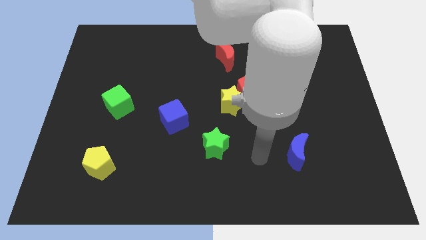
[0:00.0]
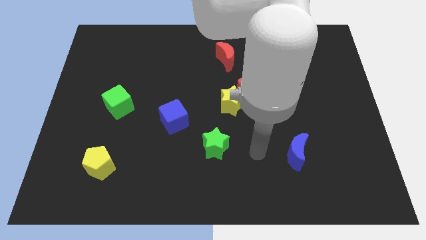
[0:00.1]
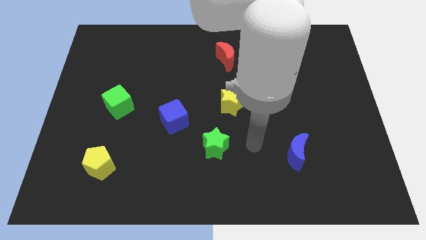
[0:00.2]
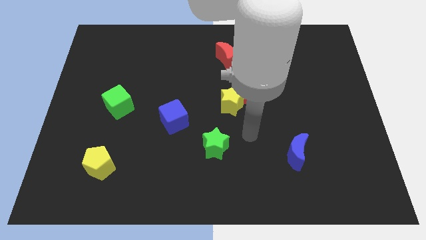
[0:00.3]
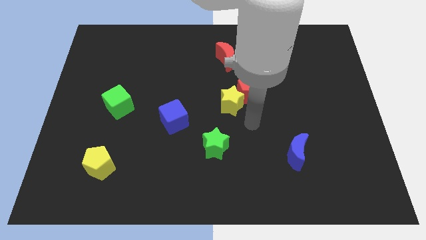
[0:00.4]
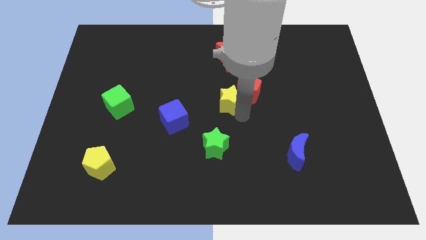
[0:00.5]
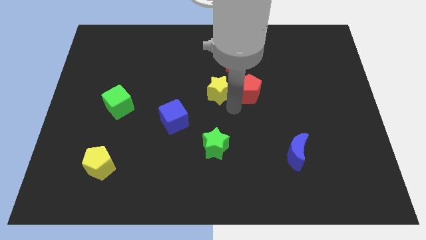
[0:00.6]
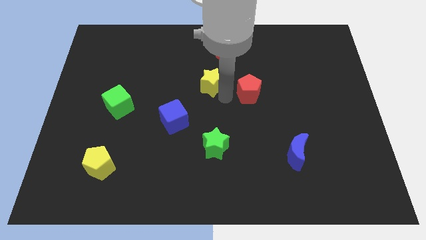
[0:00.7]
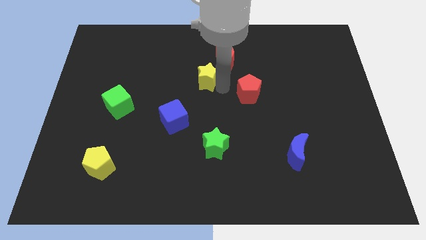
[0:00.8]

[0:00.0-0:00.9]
move the red pentagon away from the yellow star

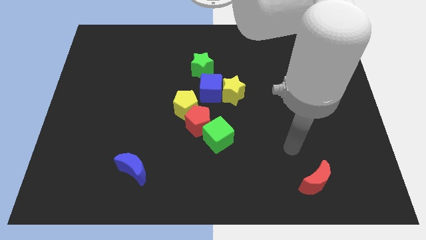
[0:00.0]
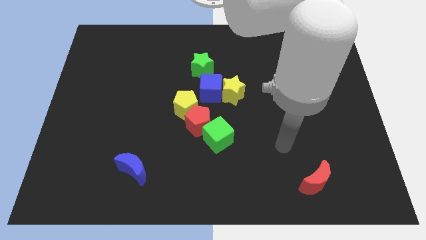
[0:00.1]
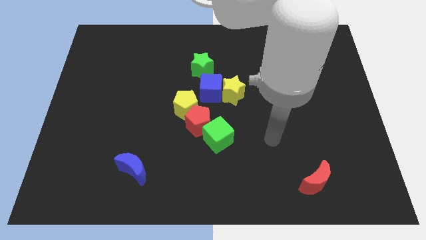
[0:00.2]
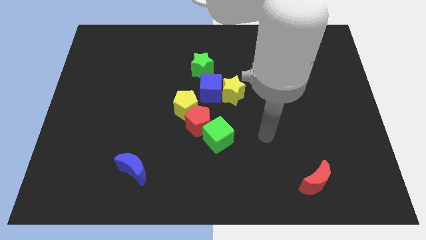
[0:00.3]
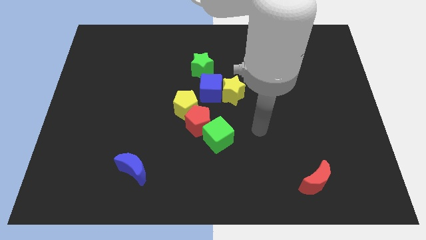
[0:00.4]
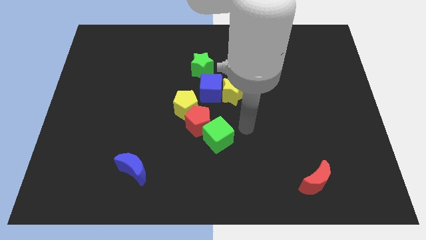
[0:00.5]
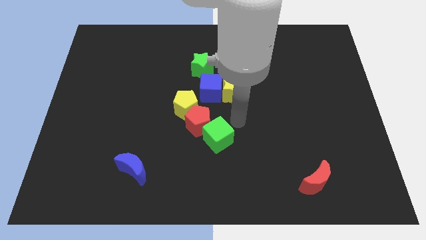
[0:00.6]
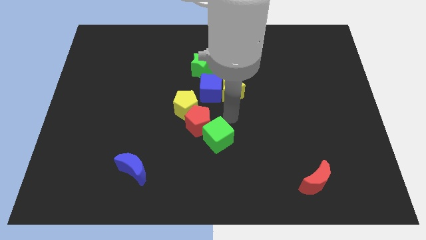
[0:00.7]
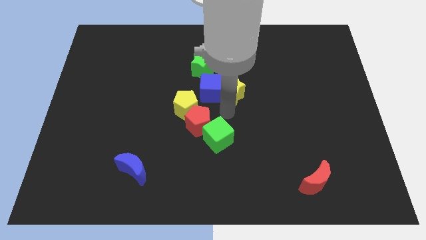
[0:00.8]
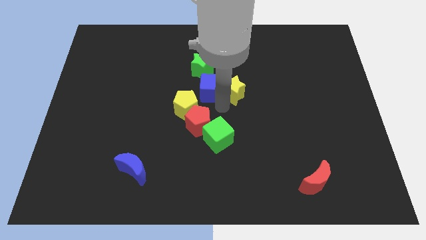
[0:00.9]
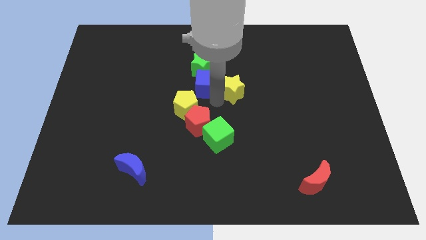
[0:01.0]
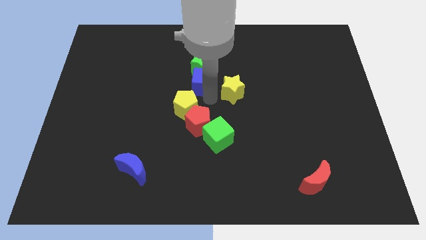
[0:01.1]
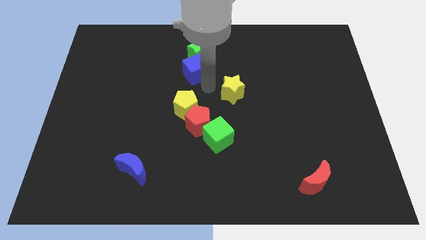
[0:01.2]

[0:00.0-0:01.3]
pull the yellow star apart from the blue cube

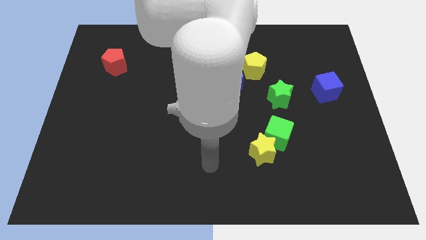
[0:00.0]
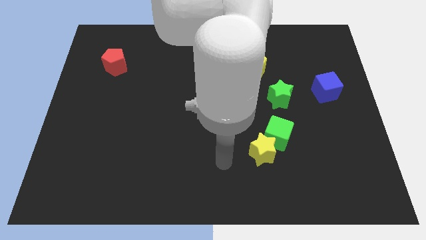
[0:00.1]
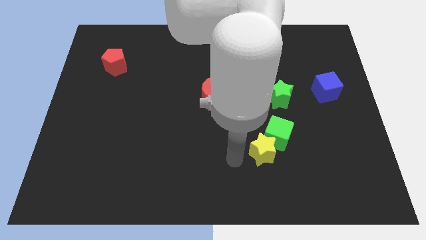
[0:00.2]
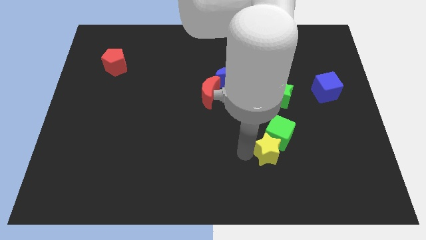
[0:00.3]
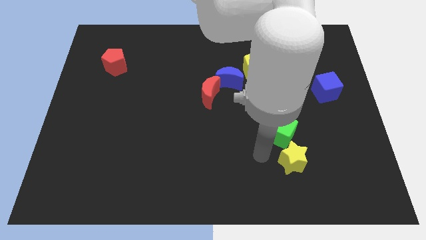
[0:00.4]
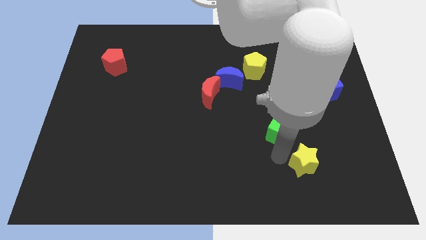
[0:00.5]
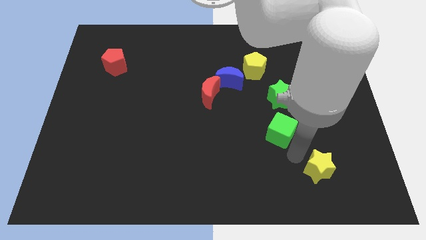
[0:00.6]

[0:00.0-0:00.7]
pull the green cube apart from the yellow star

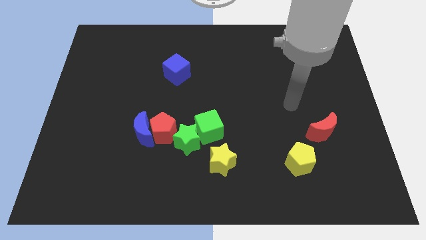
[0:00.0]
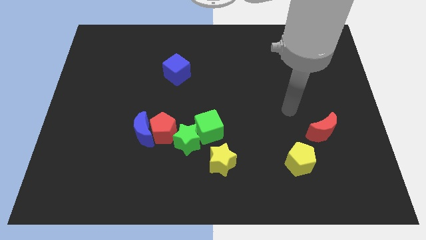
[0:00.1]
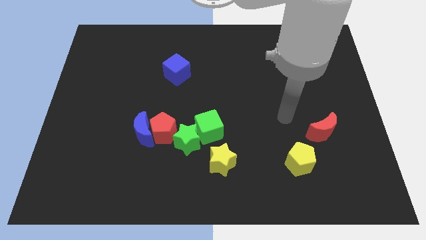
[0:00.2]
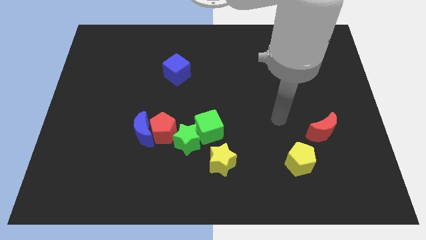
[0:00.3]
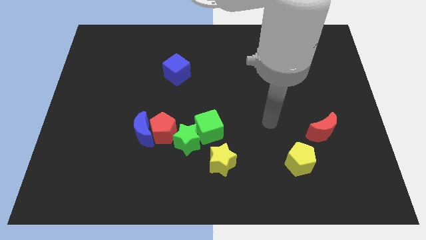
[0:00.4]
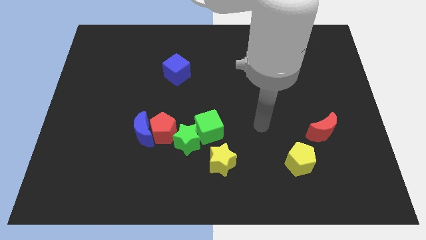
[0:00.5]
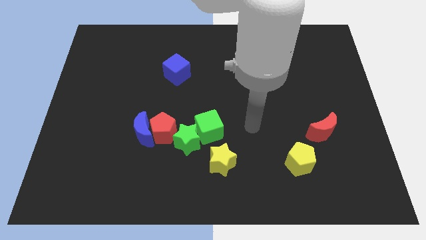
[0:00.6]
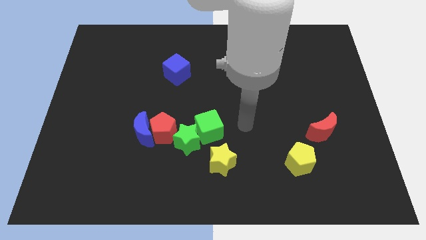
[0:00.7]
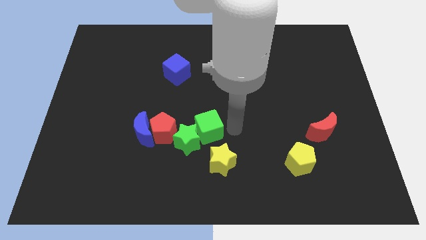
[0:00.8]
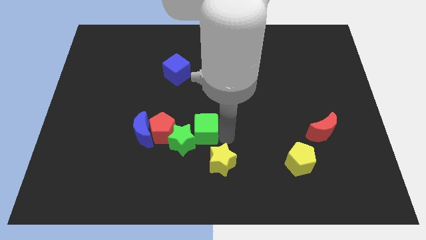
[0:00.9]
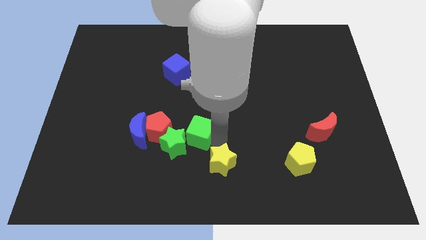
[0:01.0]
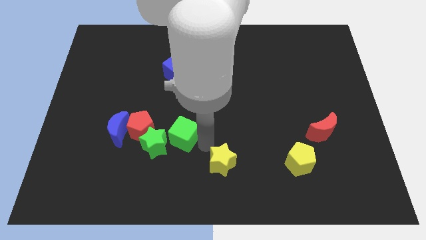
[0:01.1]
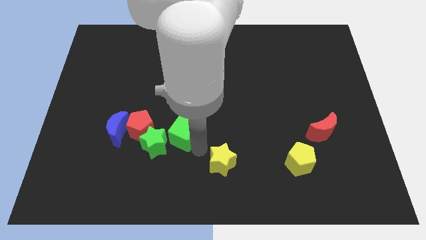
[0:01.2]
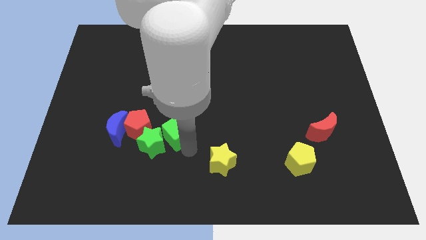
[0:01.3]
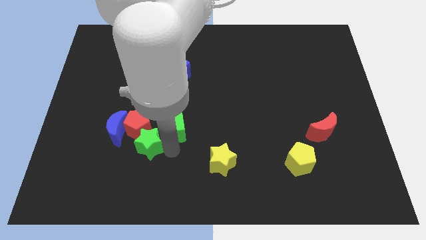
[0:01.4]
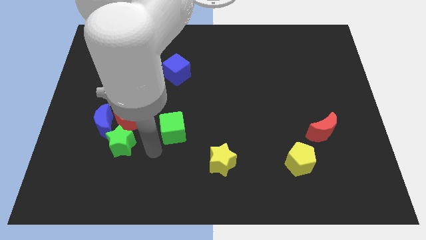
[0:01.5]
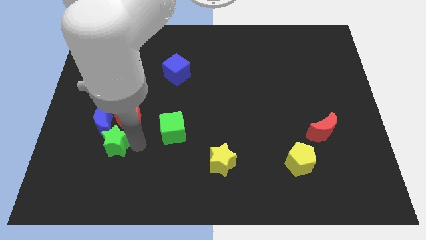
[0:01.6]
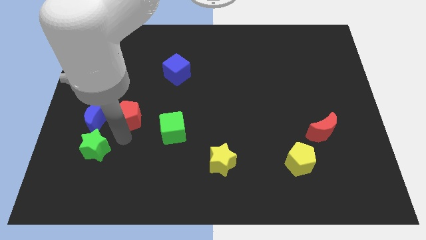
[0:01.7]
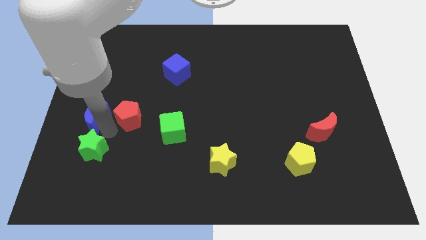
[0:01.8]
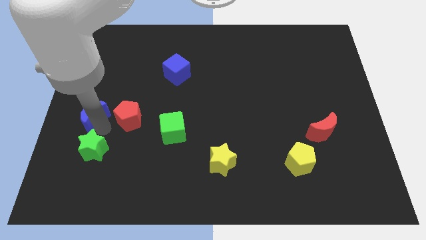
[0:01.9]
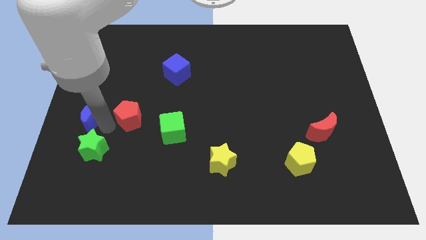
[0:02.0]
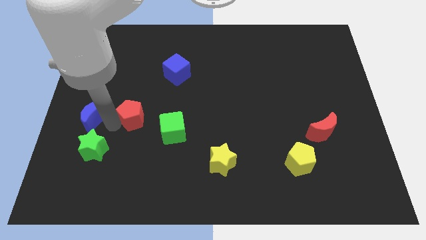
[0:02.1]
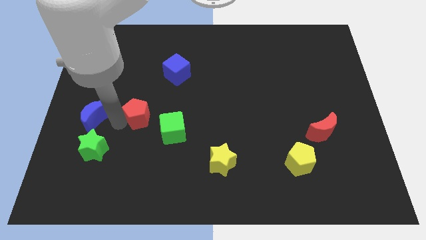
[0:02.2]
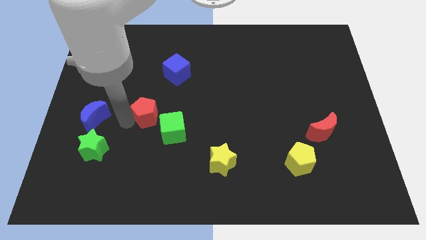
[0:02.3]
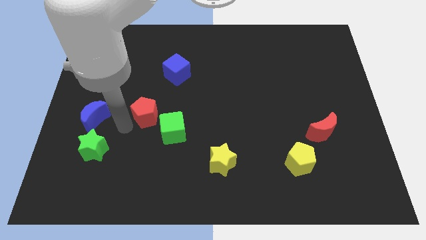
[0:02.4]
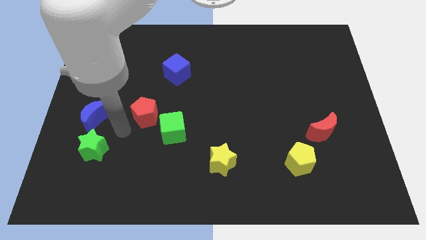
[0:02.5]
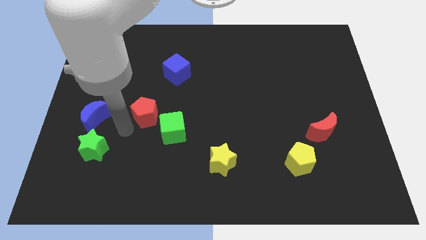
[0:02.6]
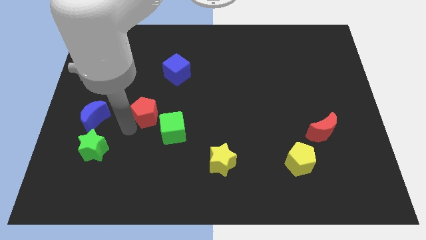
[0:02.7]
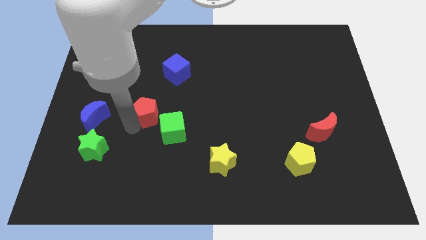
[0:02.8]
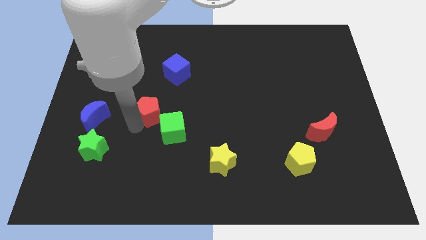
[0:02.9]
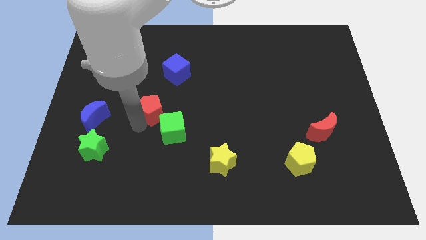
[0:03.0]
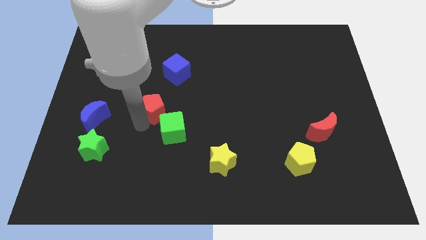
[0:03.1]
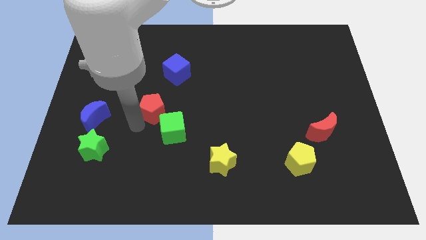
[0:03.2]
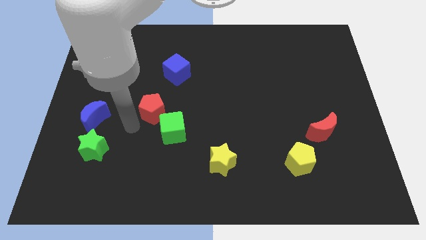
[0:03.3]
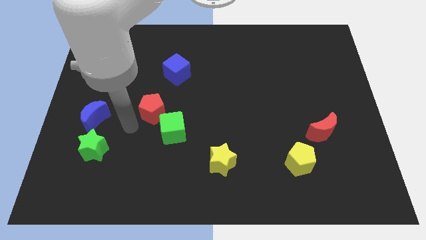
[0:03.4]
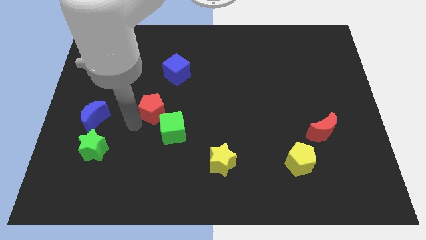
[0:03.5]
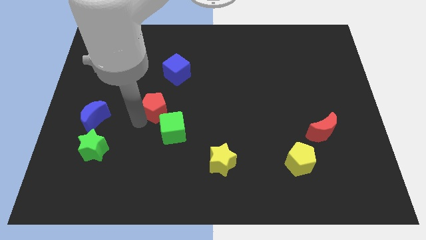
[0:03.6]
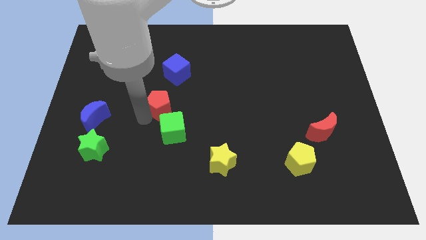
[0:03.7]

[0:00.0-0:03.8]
pull the red pentagon apart from the blue moon, green star, and green cube

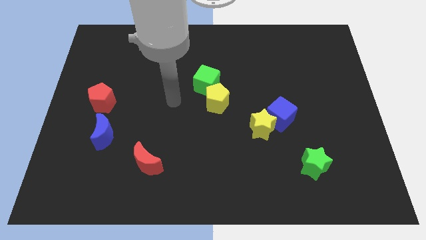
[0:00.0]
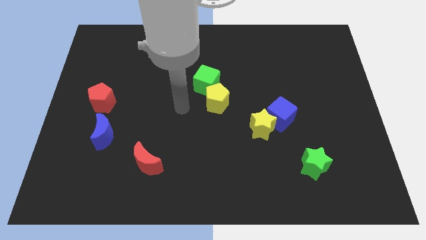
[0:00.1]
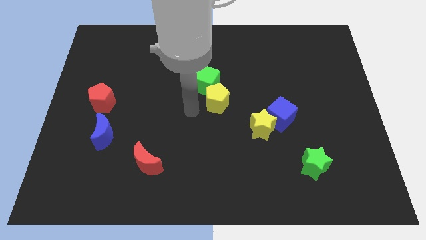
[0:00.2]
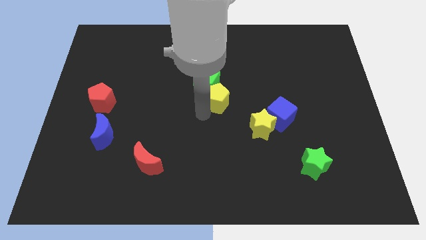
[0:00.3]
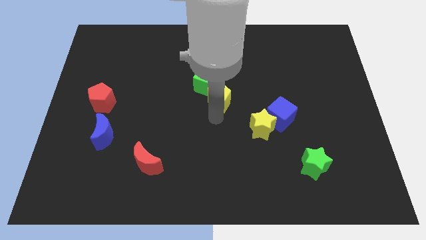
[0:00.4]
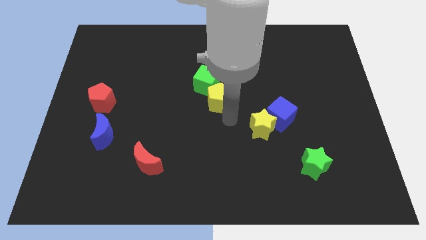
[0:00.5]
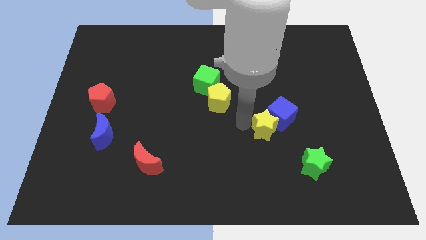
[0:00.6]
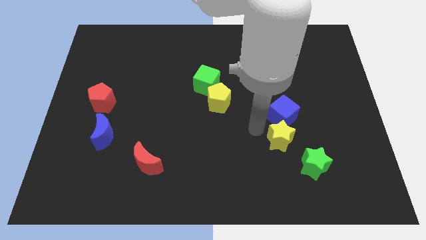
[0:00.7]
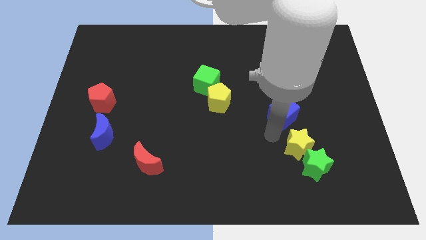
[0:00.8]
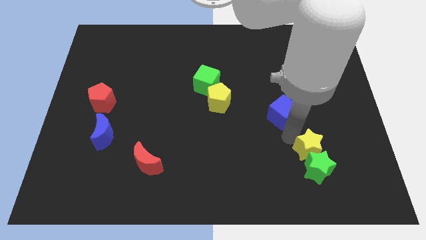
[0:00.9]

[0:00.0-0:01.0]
pull the blue cube apart from the yellow star

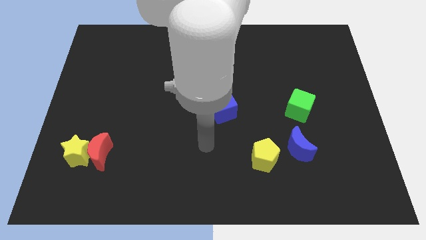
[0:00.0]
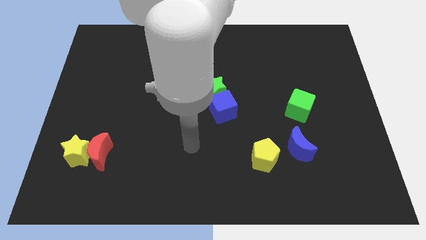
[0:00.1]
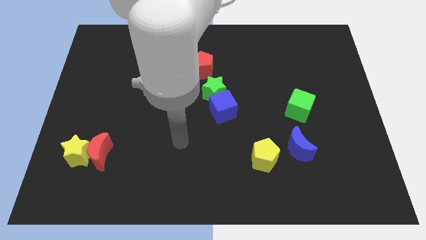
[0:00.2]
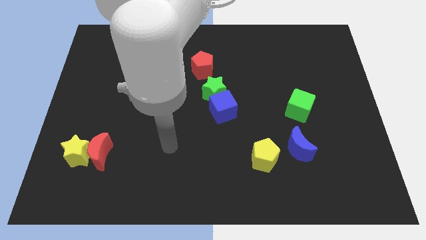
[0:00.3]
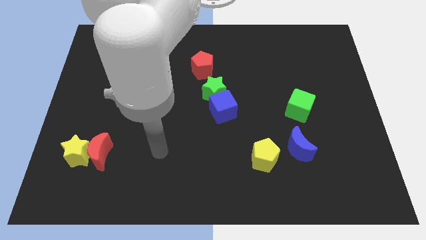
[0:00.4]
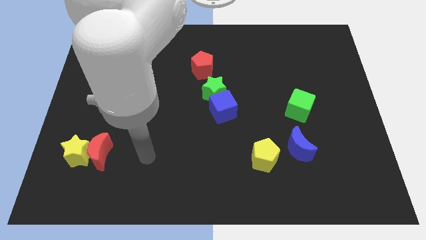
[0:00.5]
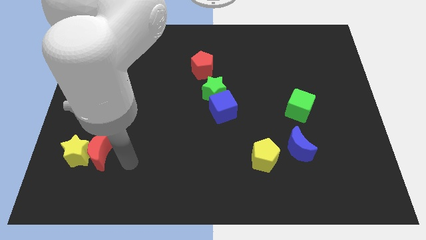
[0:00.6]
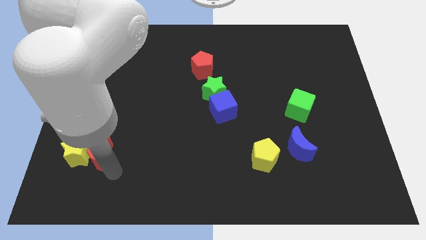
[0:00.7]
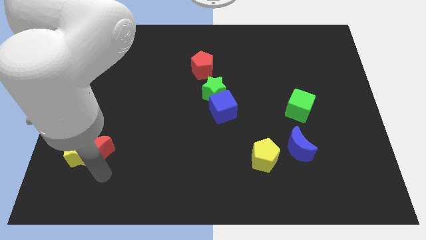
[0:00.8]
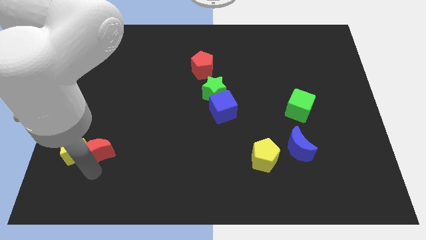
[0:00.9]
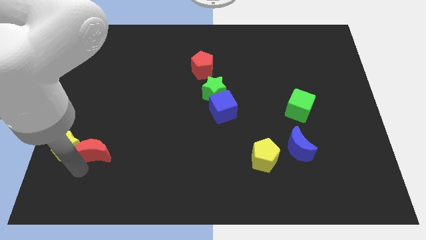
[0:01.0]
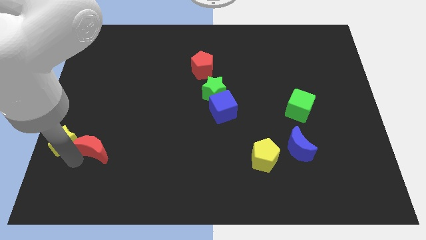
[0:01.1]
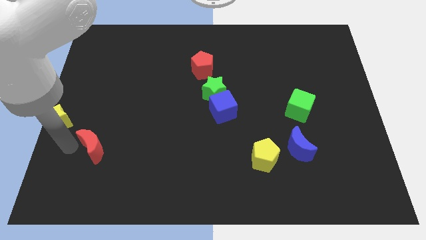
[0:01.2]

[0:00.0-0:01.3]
pull the red moon apart from the yellow star

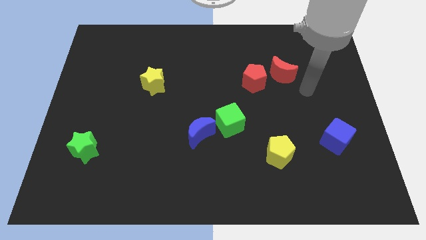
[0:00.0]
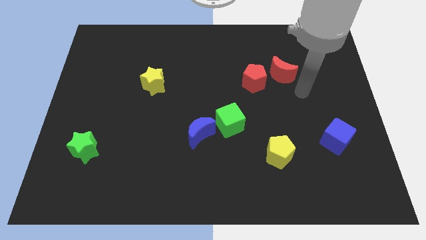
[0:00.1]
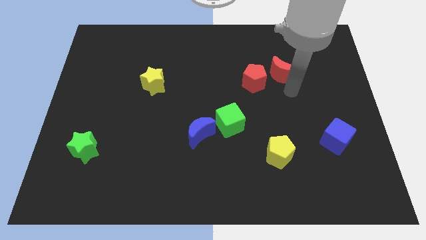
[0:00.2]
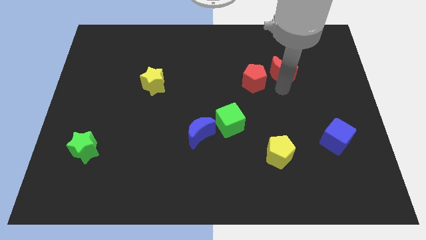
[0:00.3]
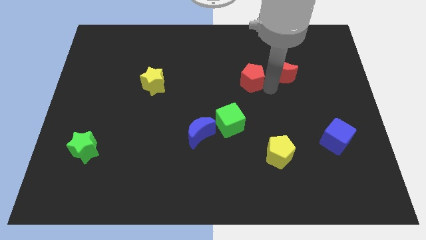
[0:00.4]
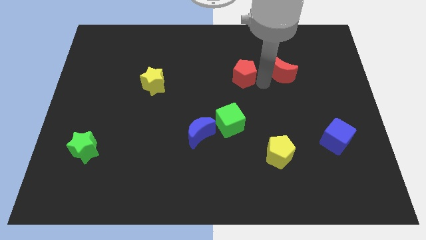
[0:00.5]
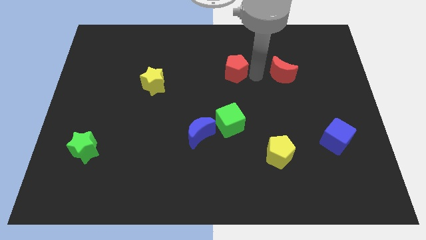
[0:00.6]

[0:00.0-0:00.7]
separate the red moon from the red pentagon
